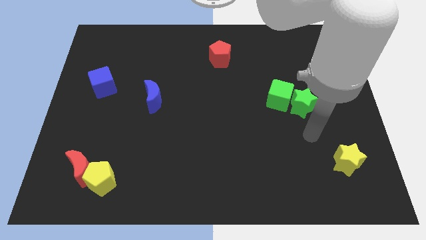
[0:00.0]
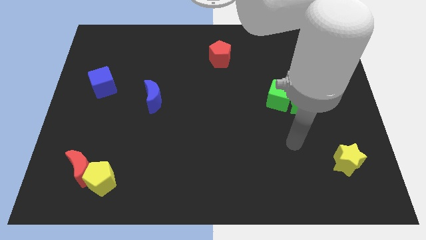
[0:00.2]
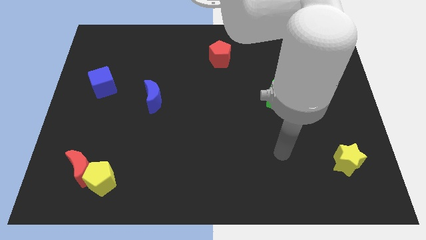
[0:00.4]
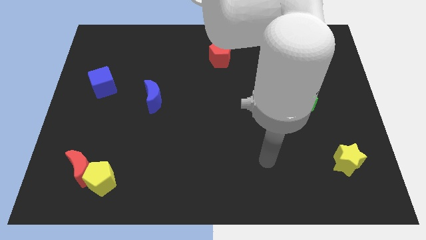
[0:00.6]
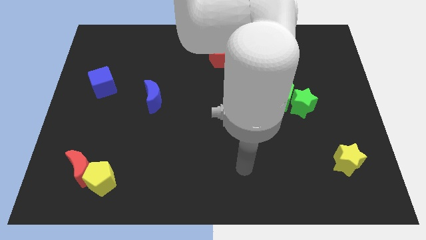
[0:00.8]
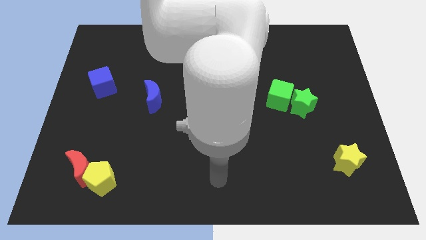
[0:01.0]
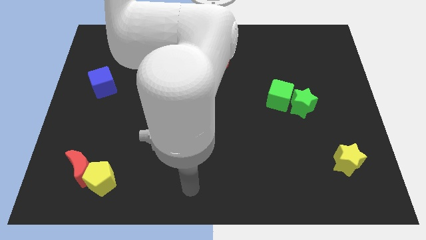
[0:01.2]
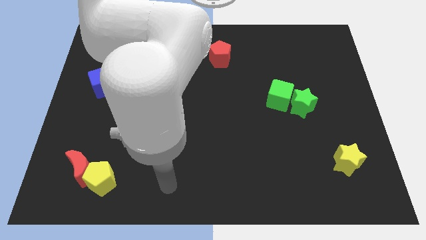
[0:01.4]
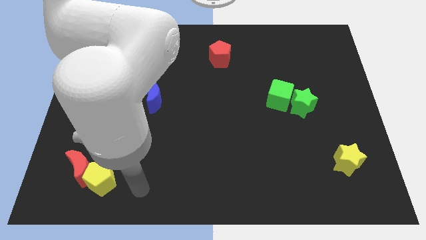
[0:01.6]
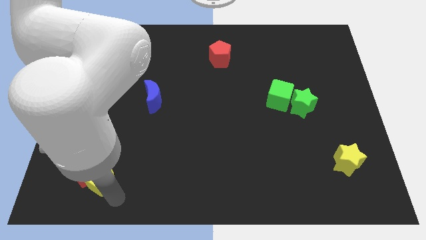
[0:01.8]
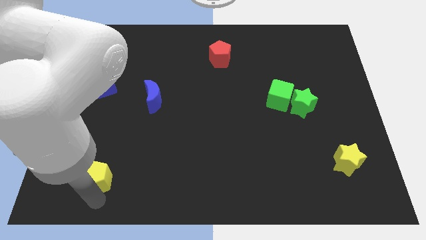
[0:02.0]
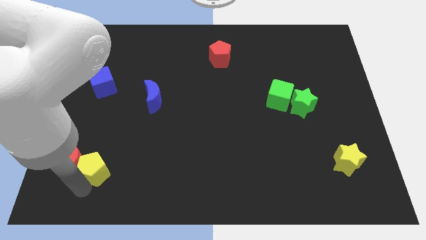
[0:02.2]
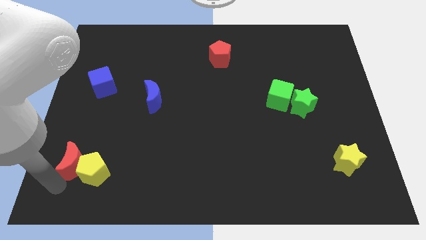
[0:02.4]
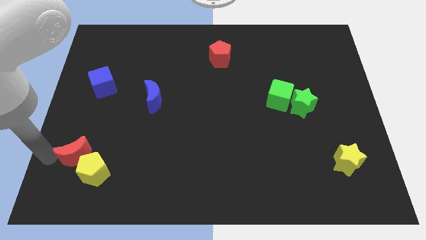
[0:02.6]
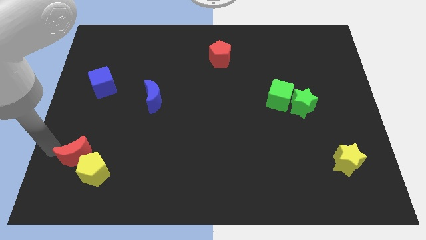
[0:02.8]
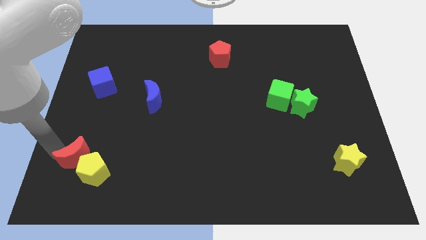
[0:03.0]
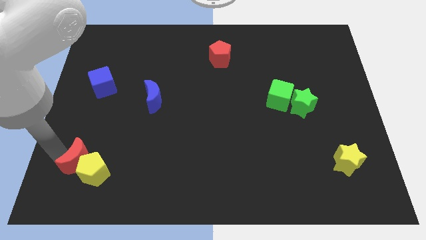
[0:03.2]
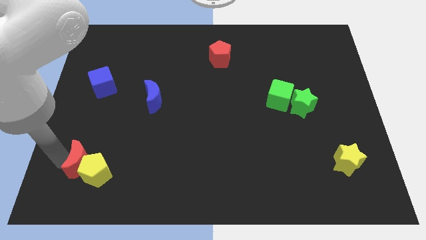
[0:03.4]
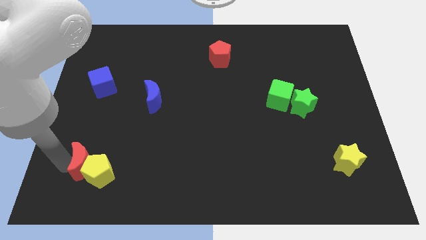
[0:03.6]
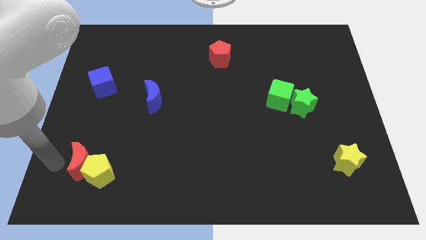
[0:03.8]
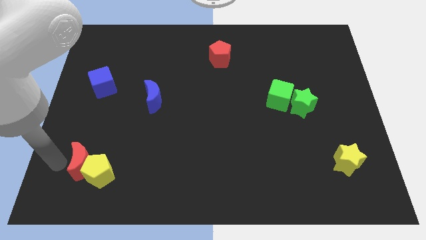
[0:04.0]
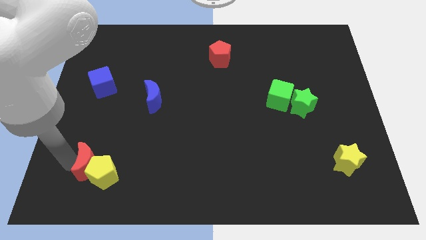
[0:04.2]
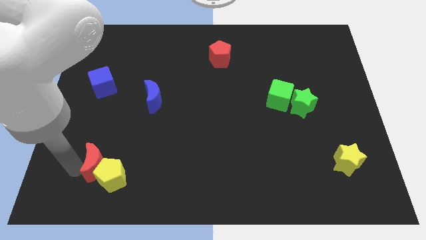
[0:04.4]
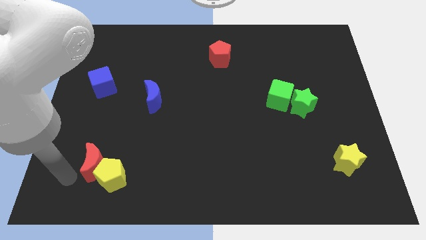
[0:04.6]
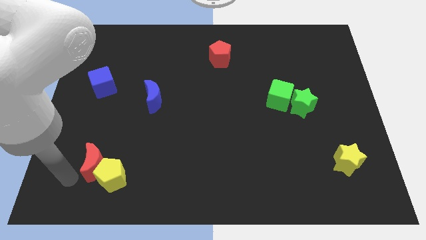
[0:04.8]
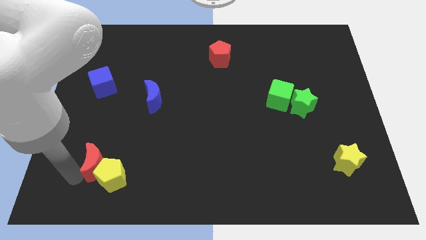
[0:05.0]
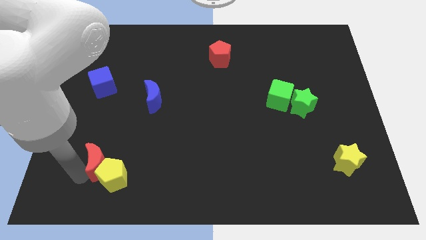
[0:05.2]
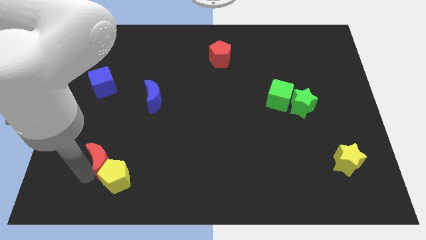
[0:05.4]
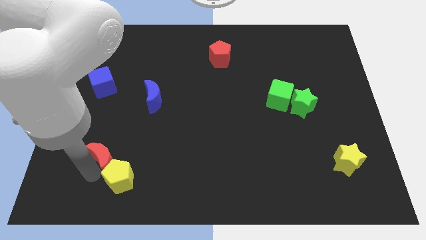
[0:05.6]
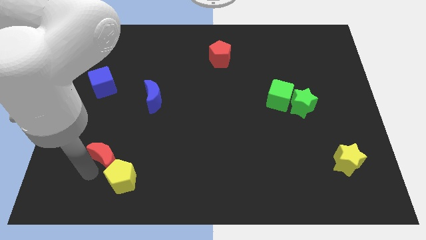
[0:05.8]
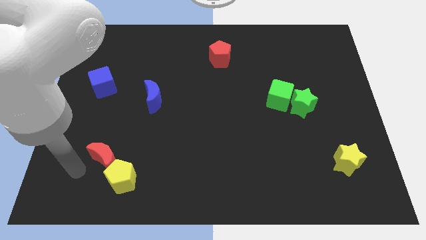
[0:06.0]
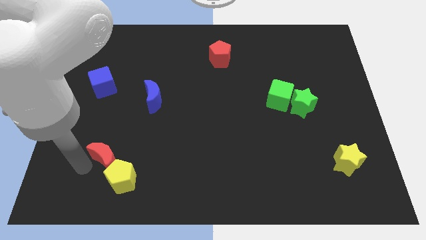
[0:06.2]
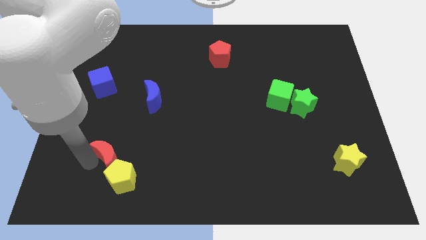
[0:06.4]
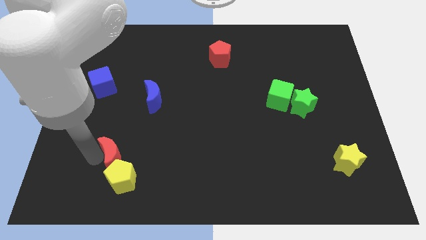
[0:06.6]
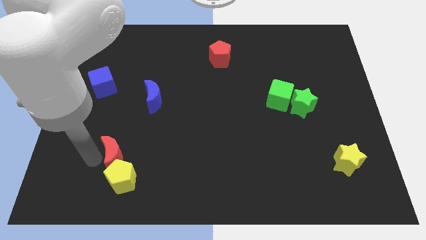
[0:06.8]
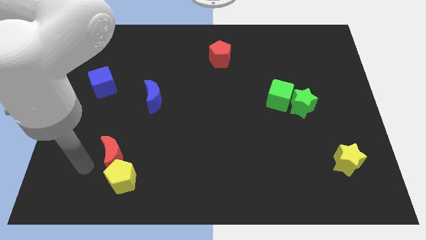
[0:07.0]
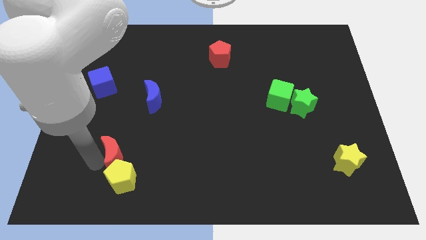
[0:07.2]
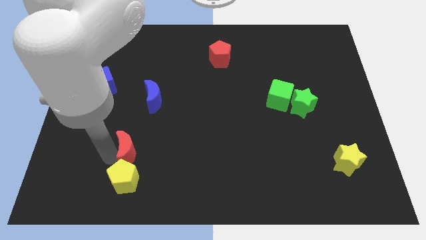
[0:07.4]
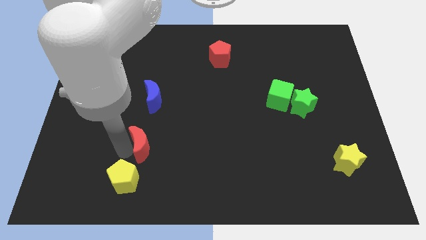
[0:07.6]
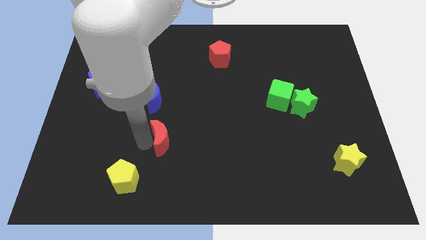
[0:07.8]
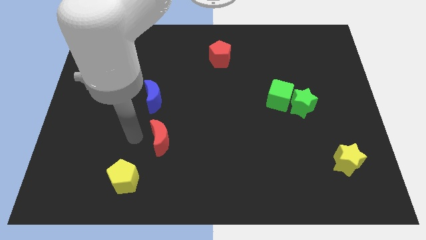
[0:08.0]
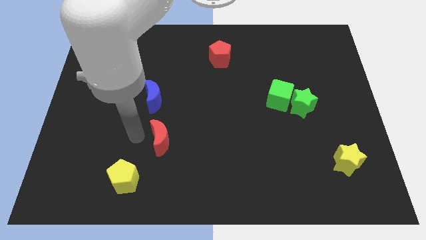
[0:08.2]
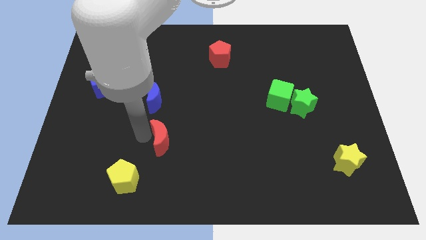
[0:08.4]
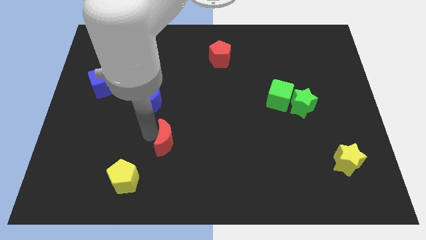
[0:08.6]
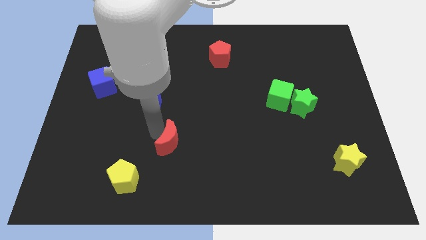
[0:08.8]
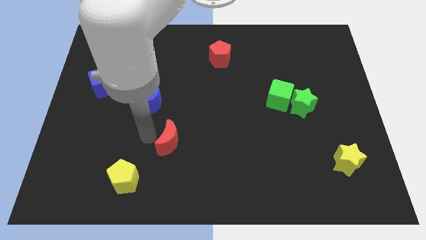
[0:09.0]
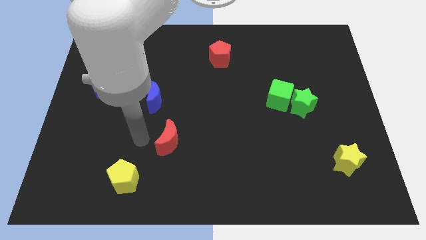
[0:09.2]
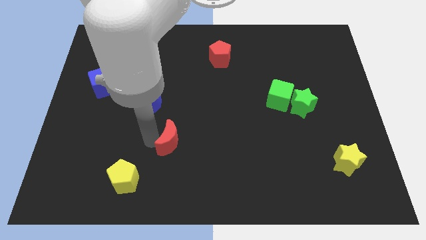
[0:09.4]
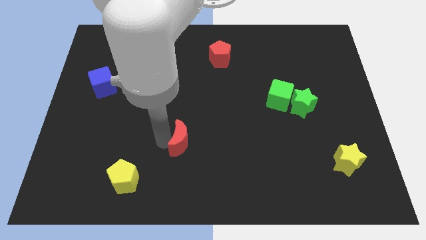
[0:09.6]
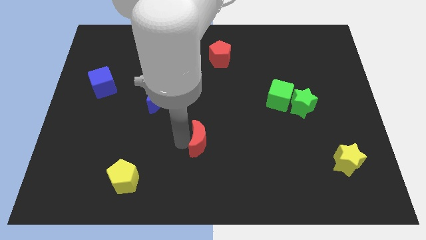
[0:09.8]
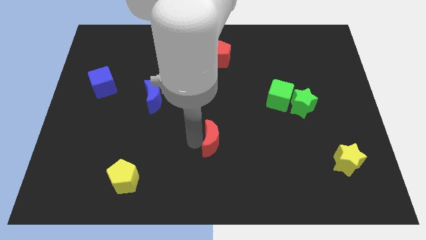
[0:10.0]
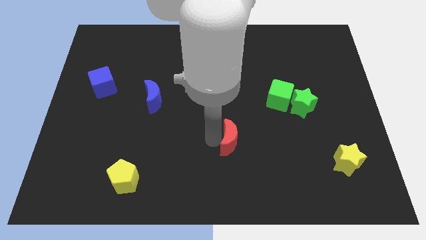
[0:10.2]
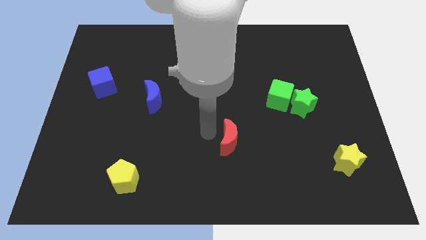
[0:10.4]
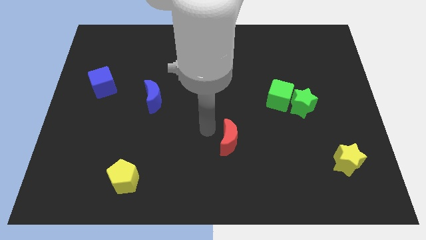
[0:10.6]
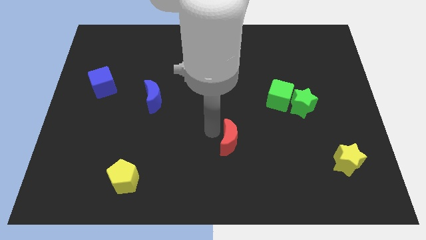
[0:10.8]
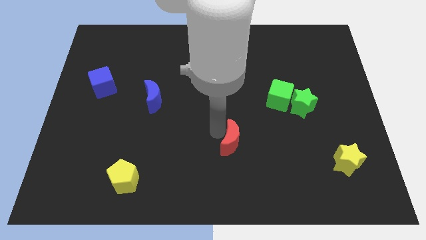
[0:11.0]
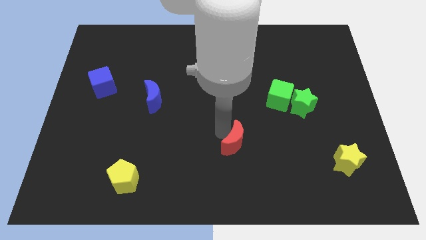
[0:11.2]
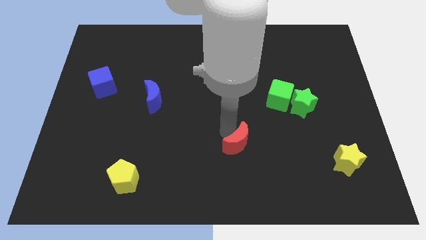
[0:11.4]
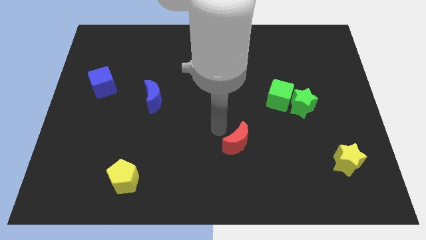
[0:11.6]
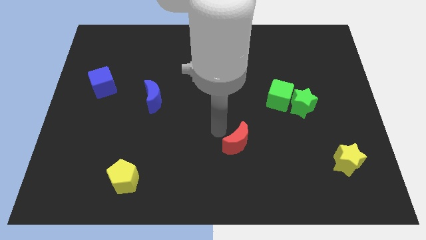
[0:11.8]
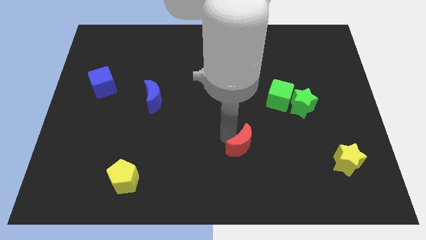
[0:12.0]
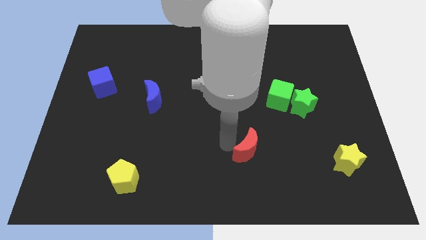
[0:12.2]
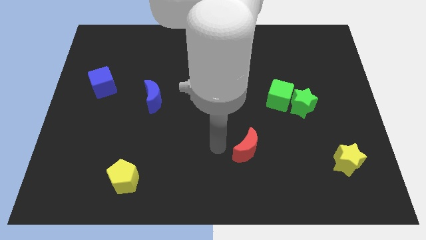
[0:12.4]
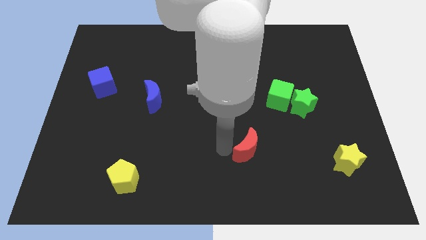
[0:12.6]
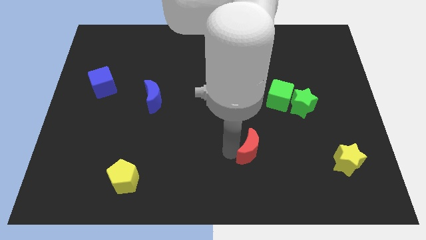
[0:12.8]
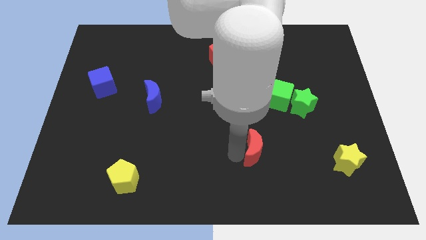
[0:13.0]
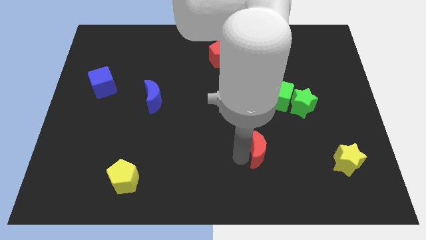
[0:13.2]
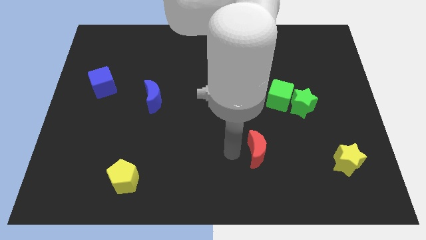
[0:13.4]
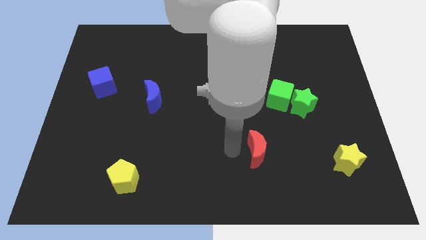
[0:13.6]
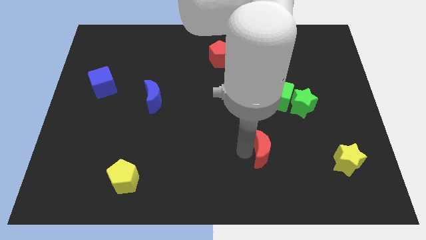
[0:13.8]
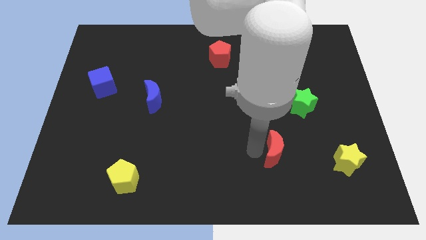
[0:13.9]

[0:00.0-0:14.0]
put the red moon left of the yellow star
